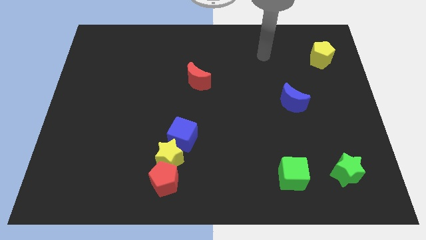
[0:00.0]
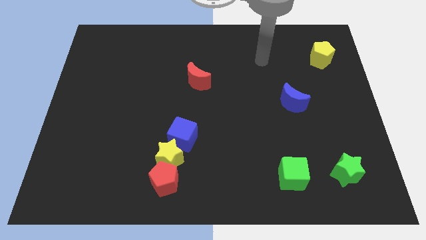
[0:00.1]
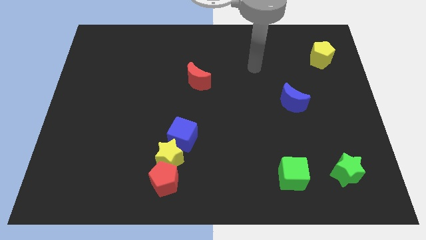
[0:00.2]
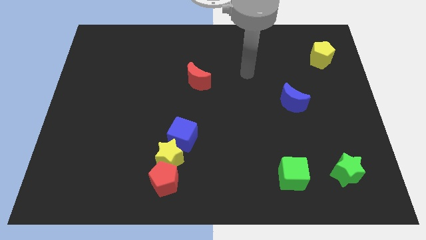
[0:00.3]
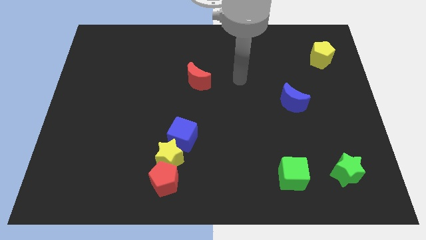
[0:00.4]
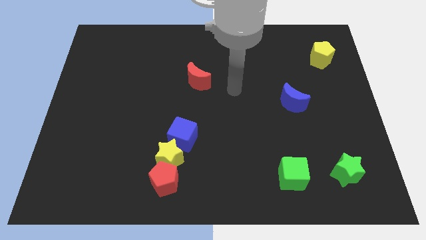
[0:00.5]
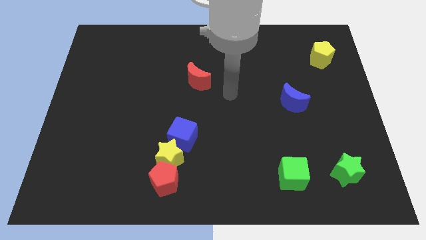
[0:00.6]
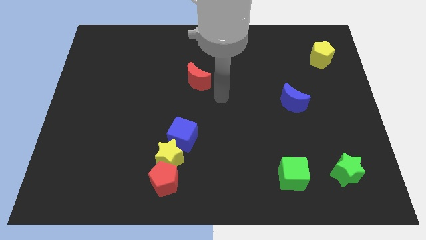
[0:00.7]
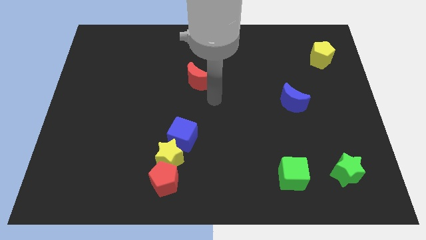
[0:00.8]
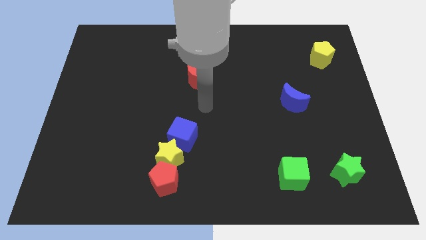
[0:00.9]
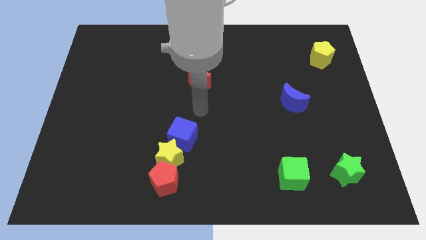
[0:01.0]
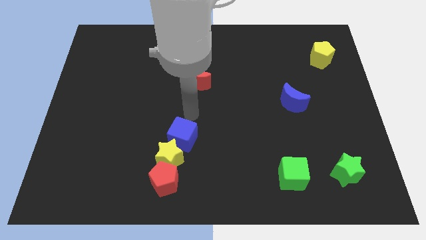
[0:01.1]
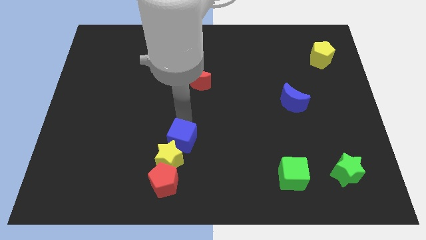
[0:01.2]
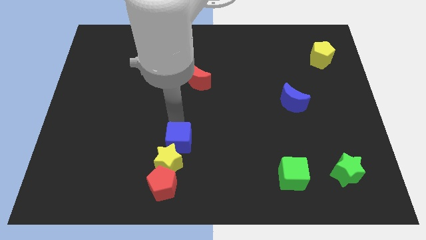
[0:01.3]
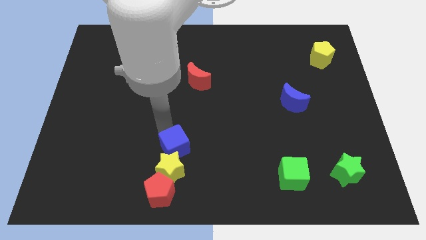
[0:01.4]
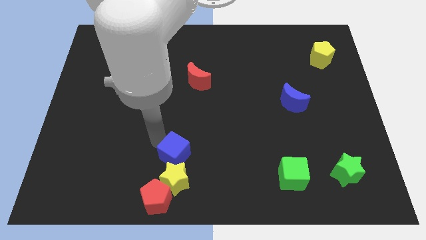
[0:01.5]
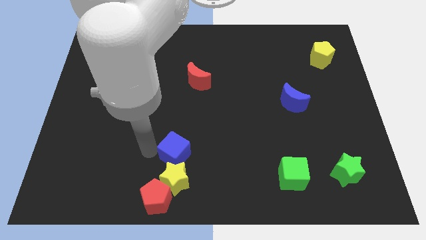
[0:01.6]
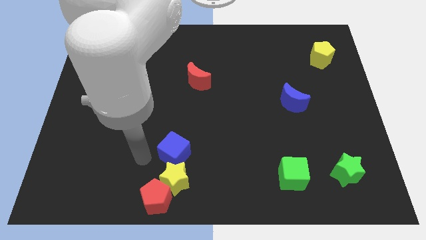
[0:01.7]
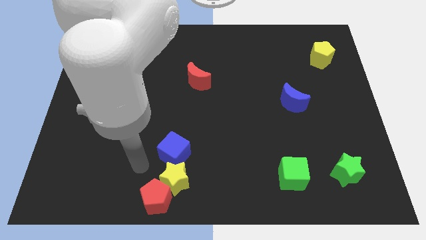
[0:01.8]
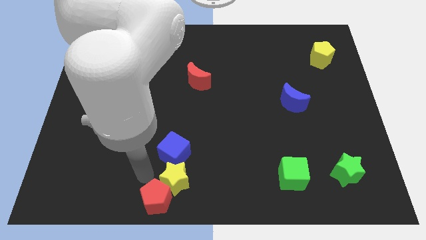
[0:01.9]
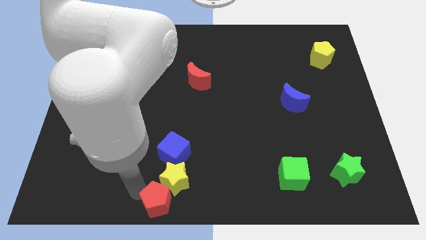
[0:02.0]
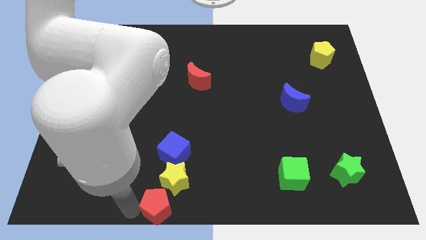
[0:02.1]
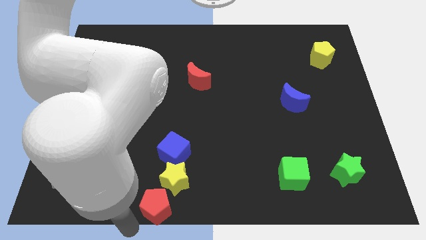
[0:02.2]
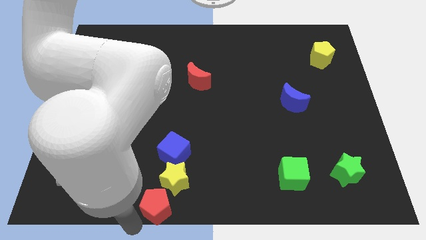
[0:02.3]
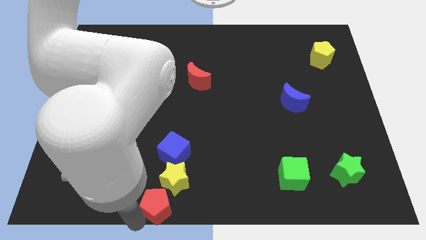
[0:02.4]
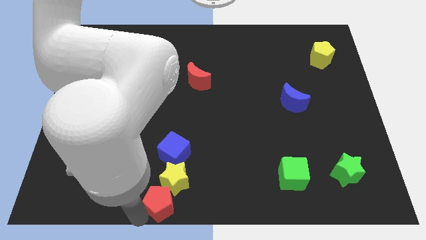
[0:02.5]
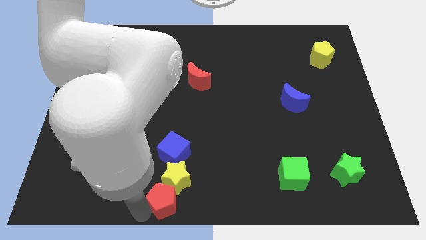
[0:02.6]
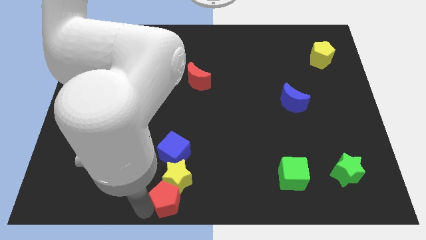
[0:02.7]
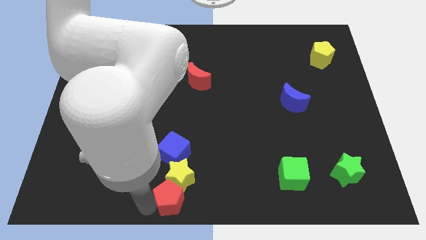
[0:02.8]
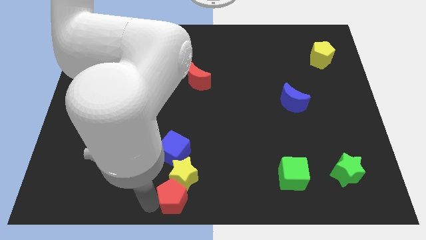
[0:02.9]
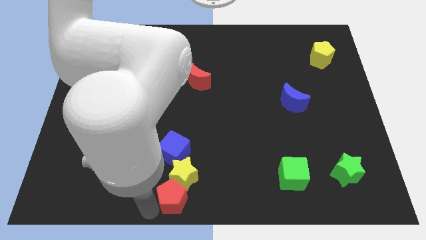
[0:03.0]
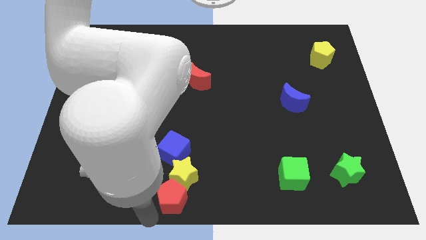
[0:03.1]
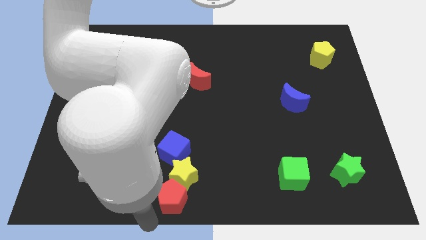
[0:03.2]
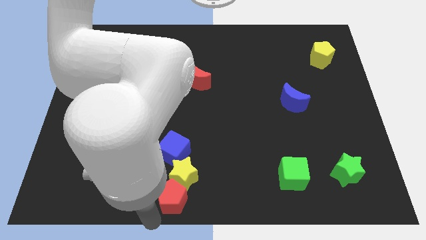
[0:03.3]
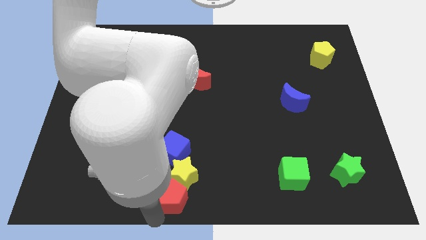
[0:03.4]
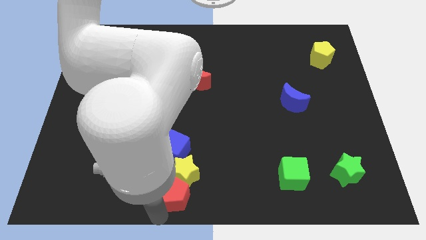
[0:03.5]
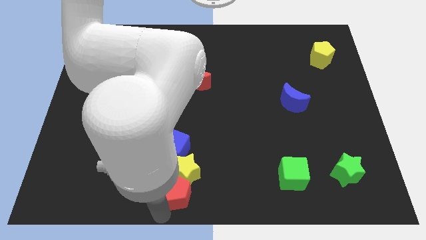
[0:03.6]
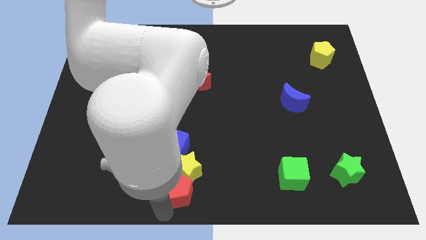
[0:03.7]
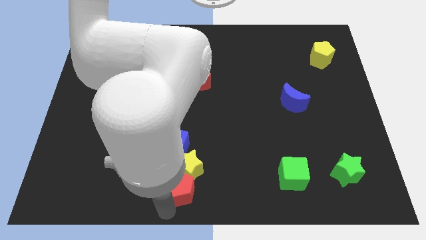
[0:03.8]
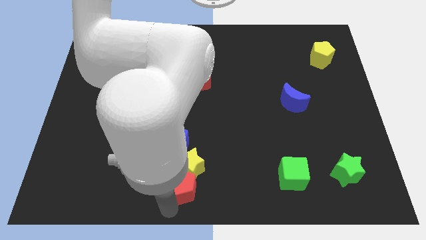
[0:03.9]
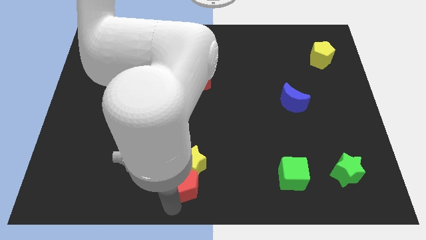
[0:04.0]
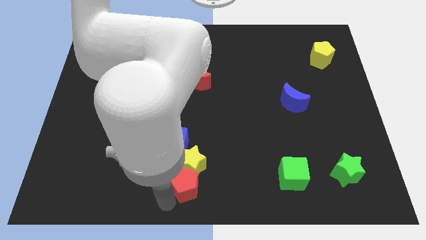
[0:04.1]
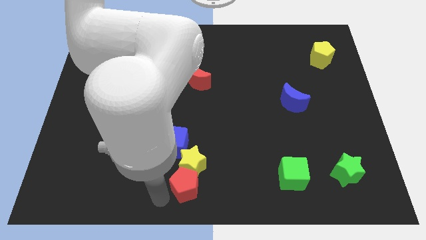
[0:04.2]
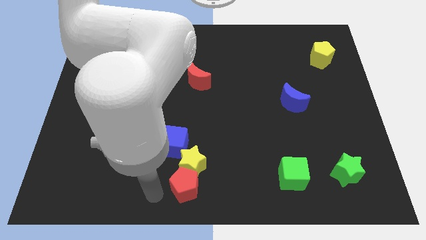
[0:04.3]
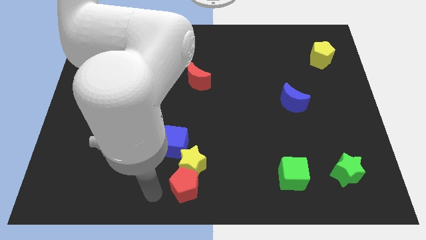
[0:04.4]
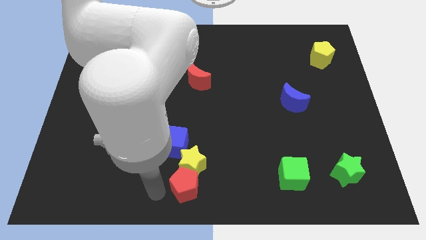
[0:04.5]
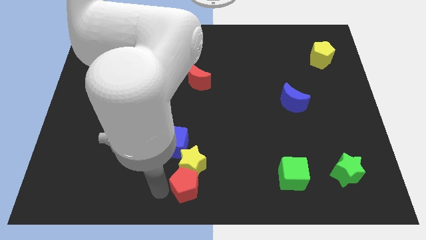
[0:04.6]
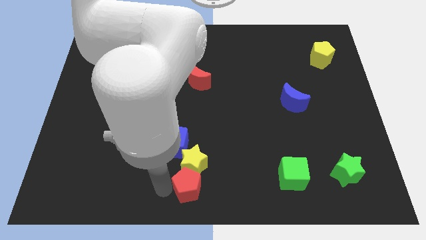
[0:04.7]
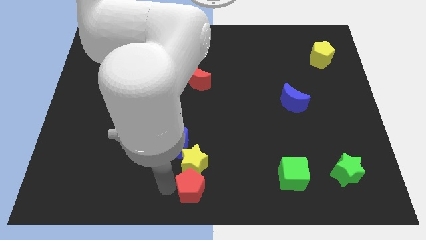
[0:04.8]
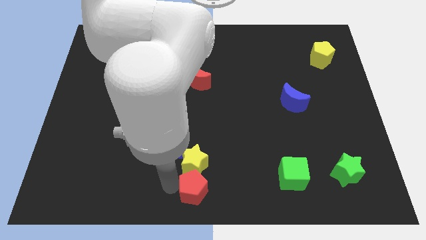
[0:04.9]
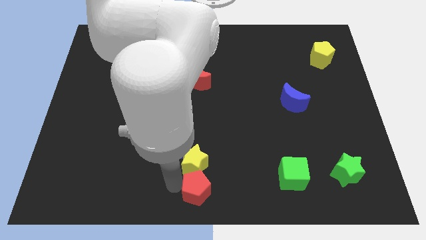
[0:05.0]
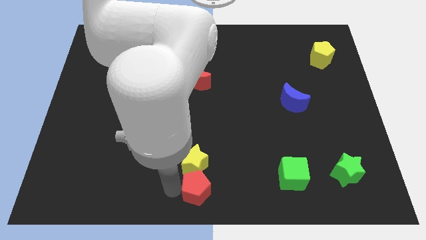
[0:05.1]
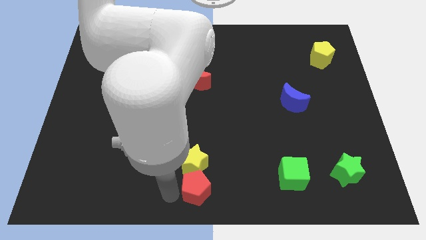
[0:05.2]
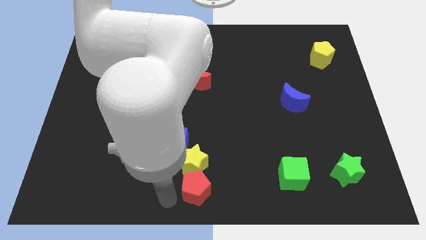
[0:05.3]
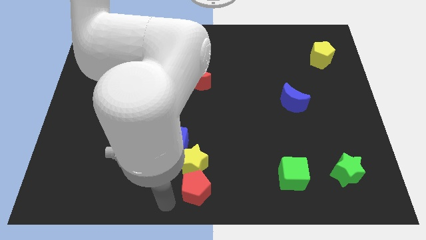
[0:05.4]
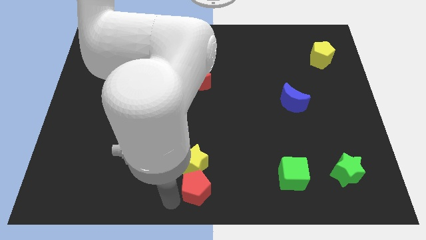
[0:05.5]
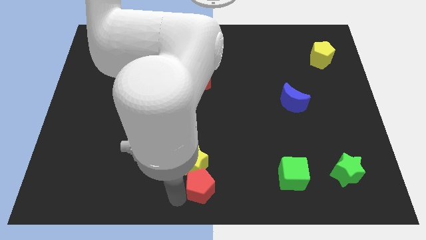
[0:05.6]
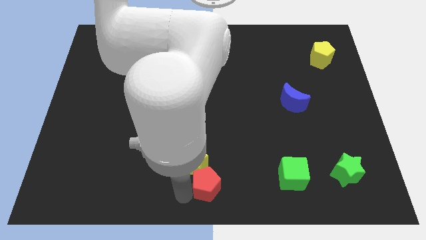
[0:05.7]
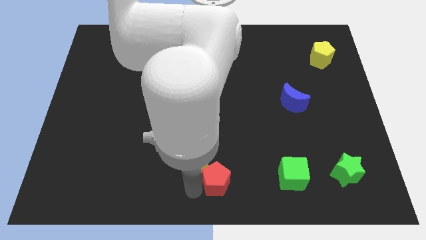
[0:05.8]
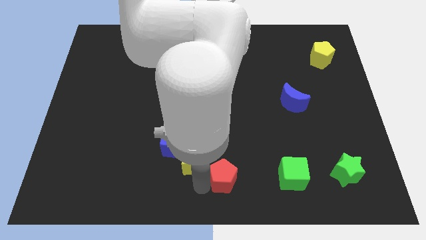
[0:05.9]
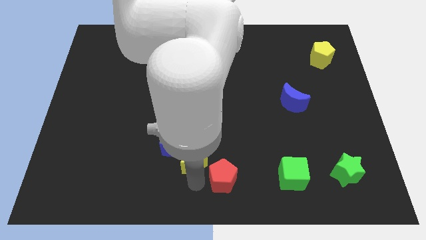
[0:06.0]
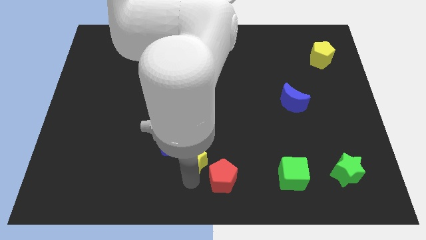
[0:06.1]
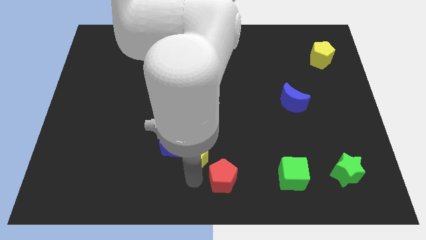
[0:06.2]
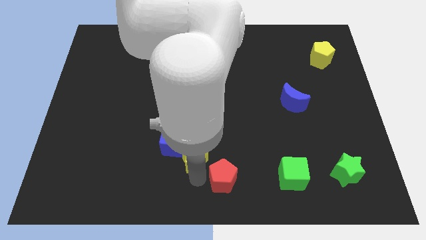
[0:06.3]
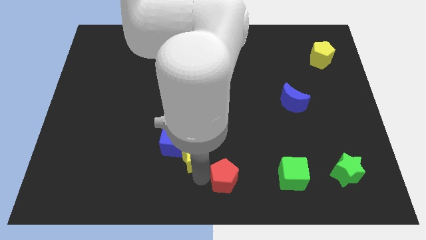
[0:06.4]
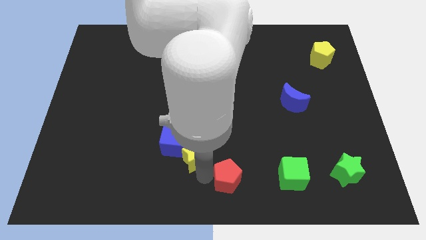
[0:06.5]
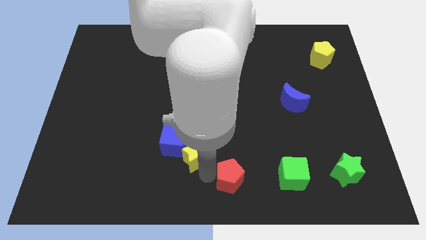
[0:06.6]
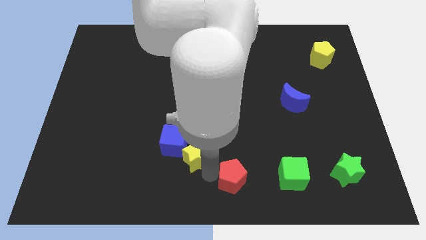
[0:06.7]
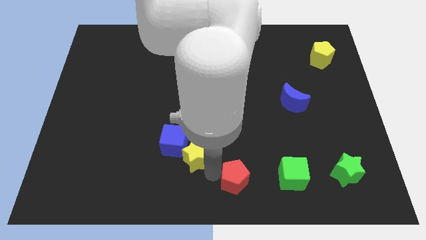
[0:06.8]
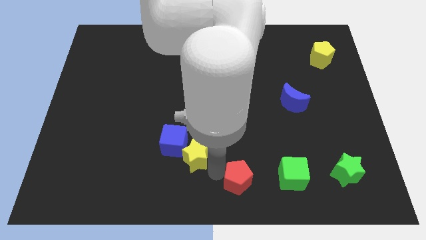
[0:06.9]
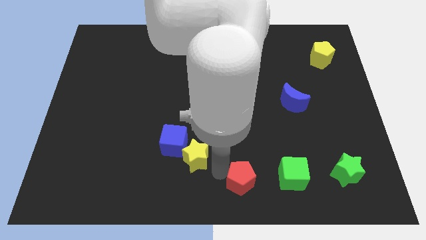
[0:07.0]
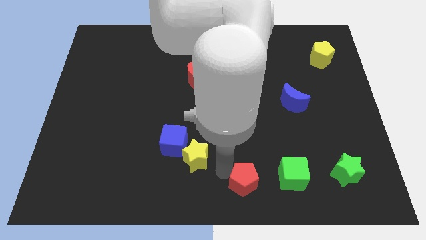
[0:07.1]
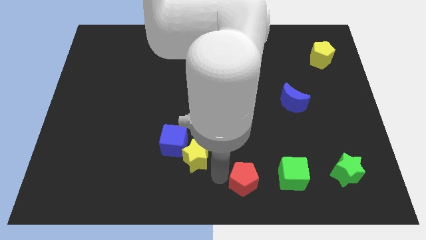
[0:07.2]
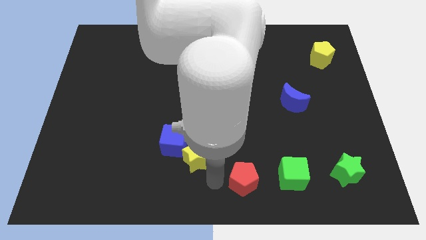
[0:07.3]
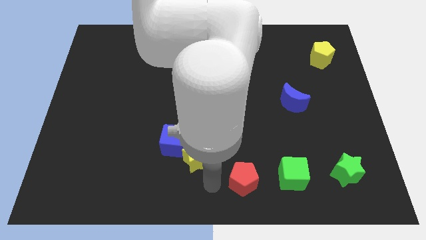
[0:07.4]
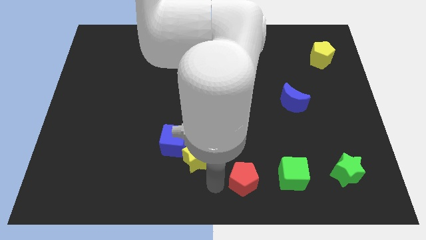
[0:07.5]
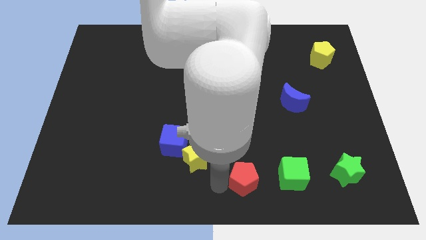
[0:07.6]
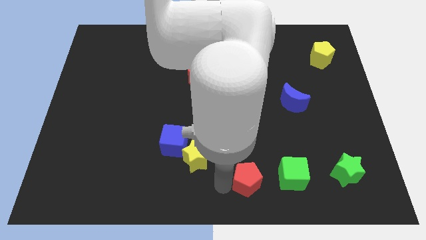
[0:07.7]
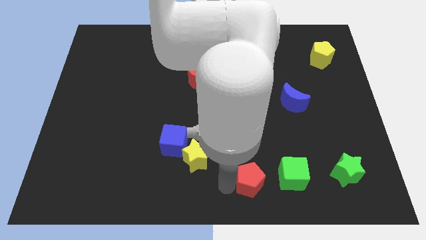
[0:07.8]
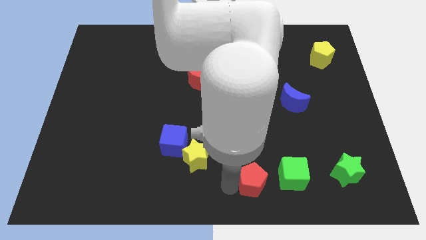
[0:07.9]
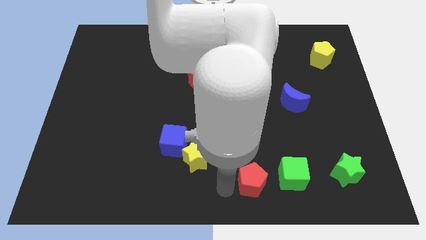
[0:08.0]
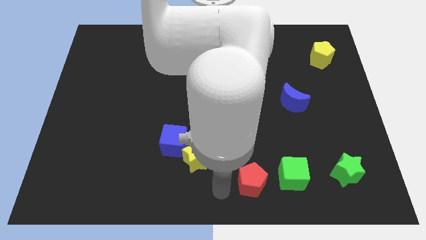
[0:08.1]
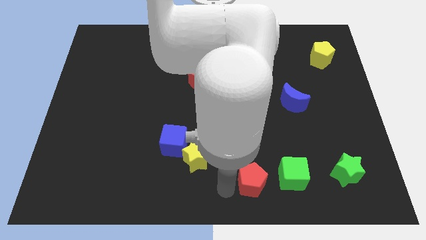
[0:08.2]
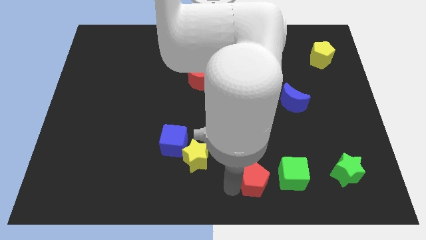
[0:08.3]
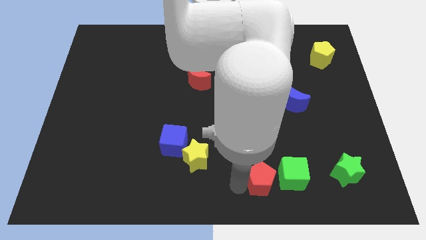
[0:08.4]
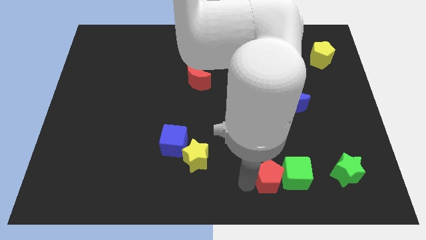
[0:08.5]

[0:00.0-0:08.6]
slide the red pentagon towards the green cube
